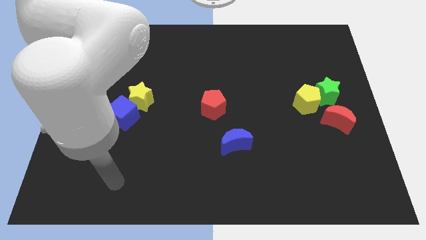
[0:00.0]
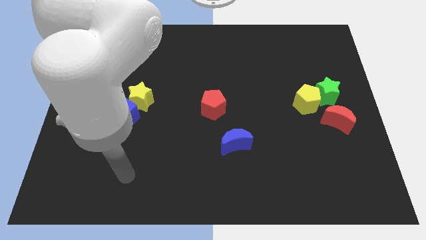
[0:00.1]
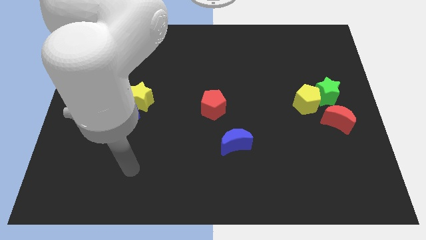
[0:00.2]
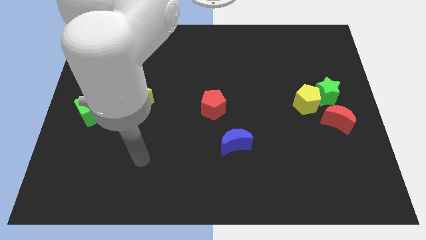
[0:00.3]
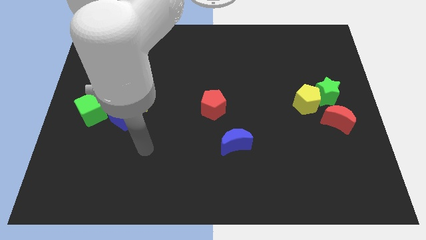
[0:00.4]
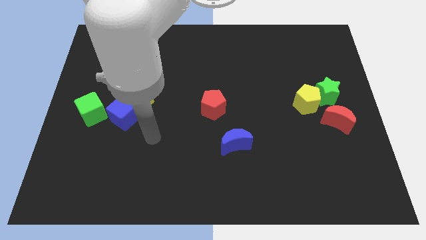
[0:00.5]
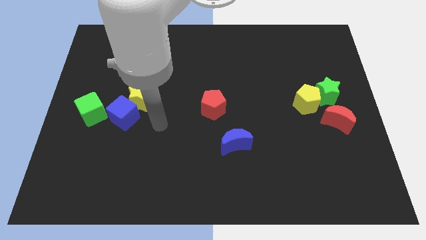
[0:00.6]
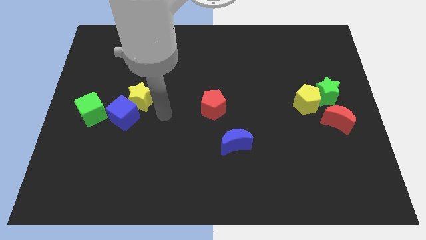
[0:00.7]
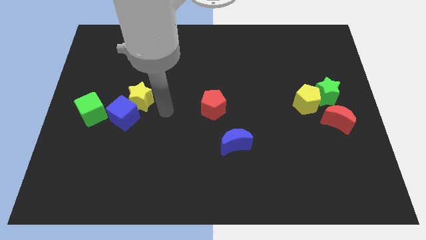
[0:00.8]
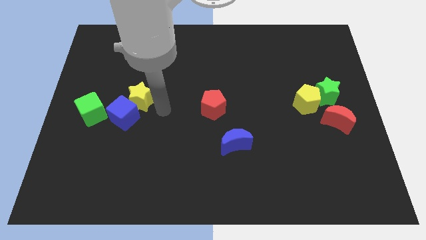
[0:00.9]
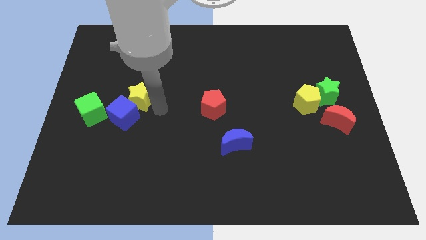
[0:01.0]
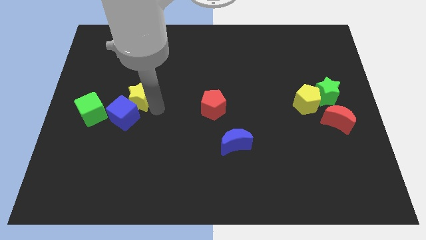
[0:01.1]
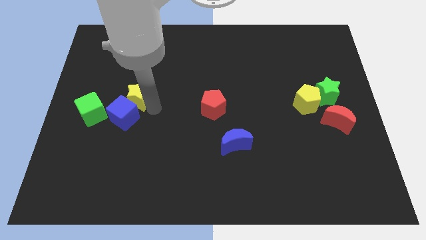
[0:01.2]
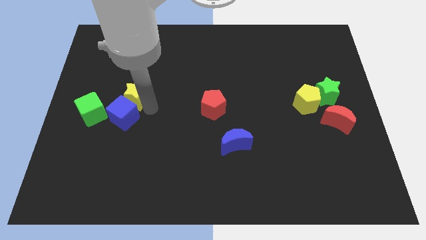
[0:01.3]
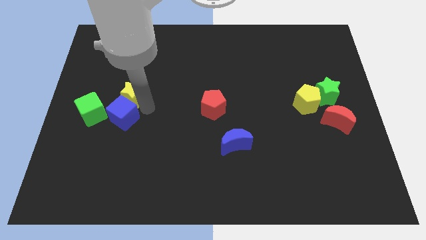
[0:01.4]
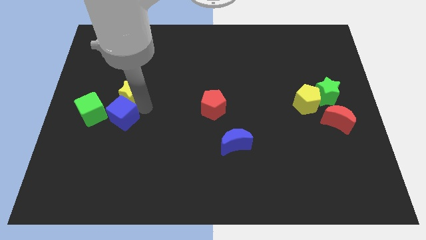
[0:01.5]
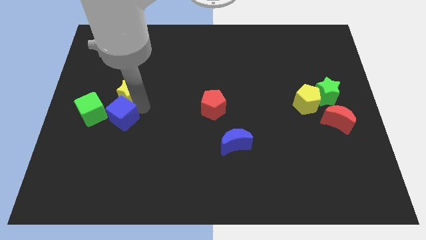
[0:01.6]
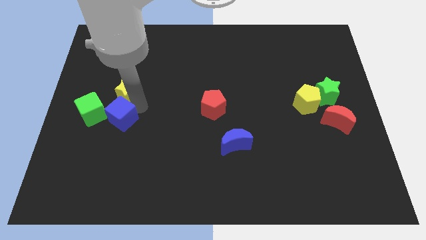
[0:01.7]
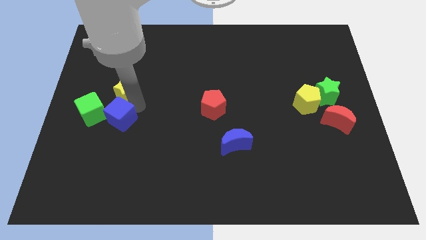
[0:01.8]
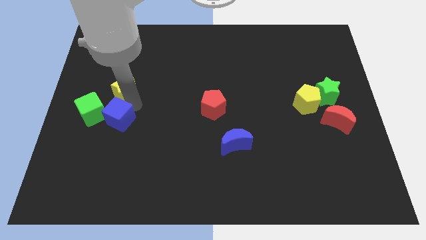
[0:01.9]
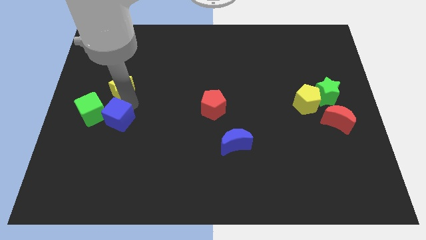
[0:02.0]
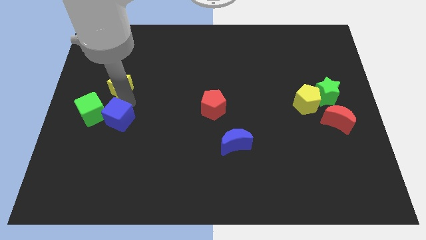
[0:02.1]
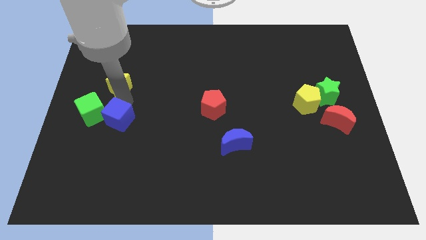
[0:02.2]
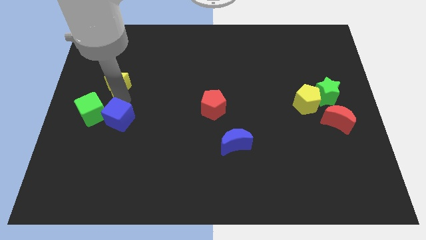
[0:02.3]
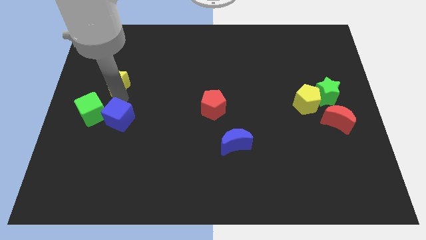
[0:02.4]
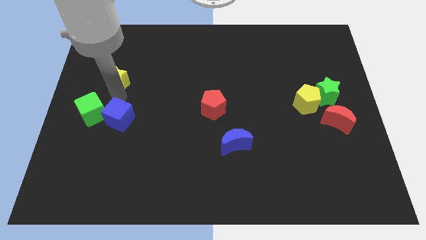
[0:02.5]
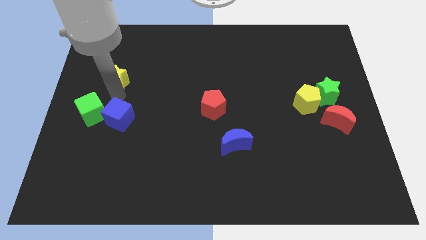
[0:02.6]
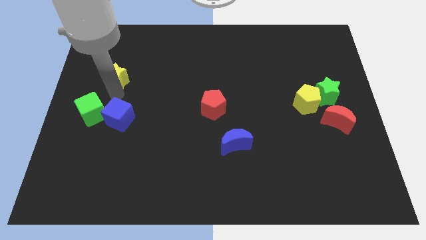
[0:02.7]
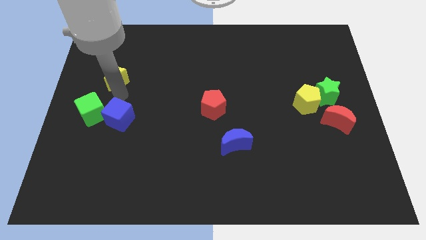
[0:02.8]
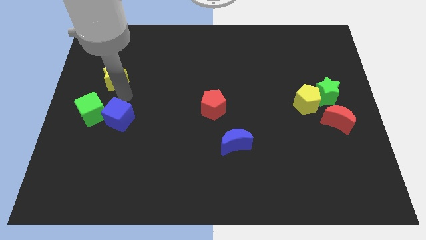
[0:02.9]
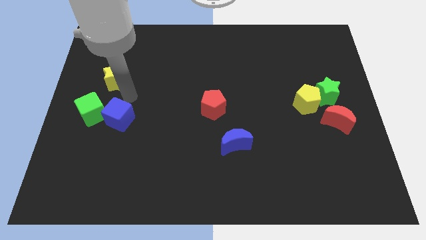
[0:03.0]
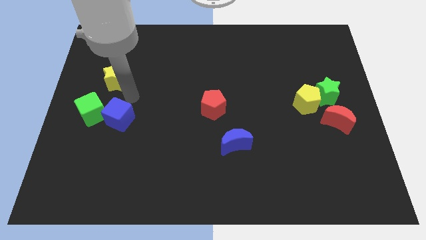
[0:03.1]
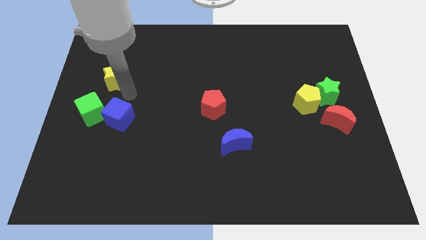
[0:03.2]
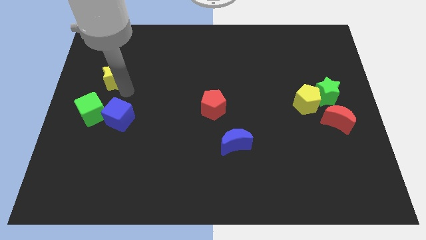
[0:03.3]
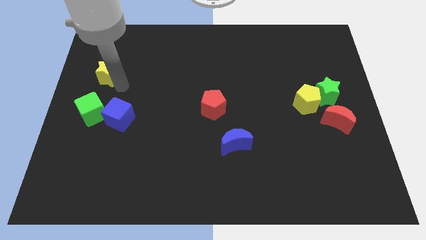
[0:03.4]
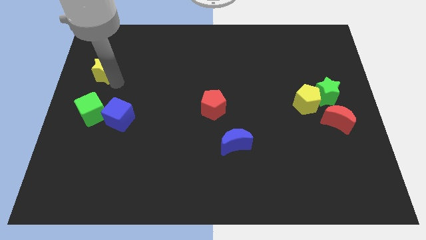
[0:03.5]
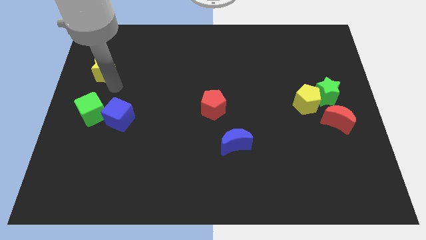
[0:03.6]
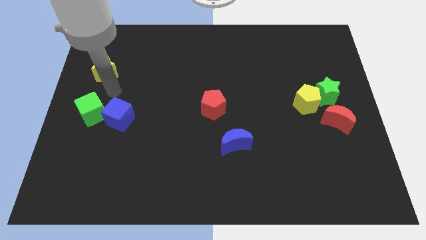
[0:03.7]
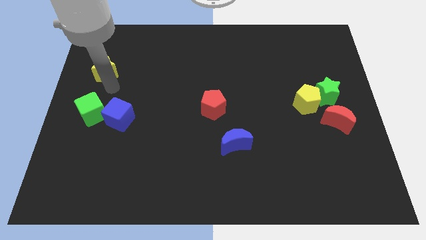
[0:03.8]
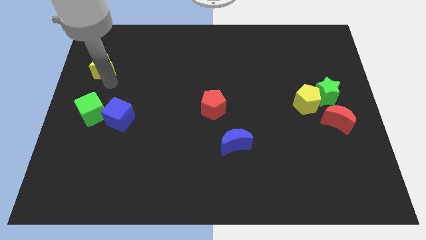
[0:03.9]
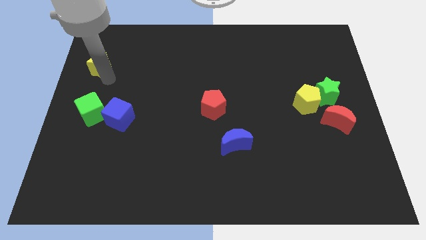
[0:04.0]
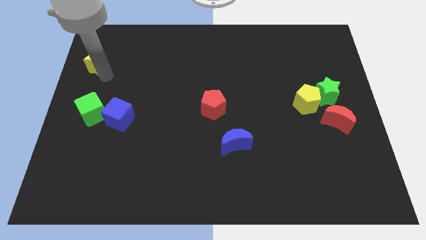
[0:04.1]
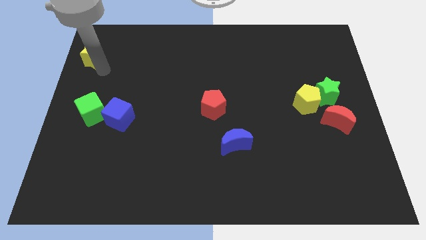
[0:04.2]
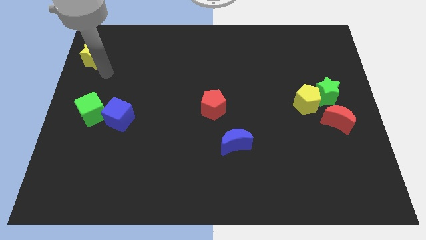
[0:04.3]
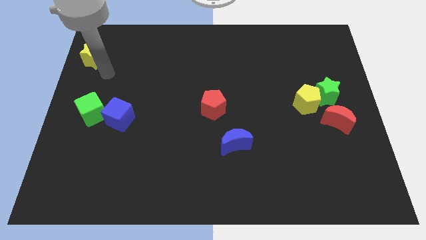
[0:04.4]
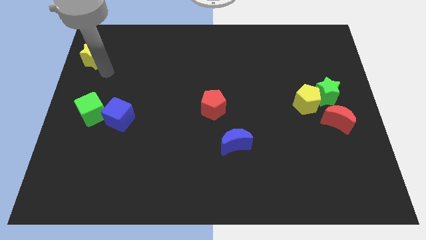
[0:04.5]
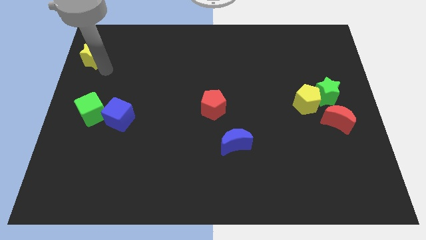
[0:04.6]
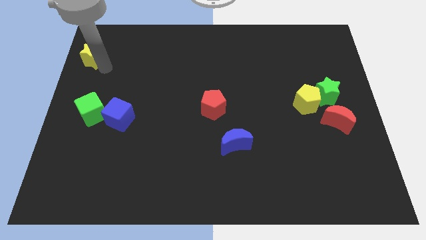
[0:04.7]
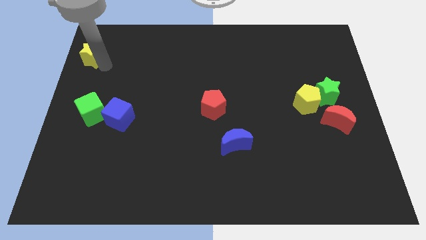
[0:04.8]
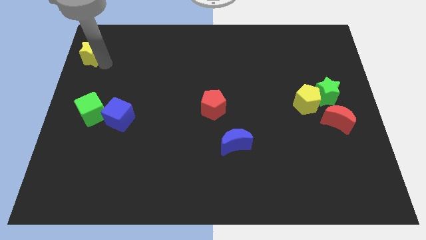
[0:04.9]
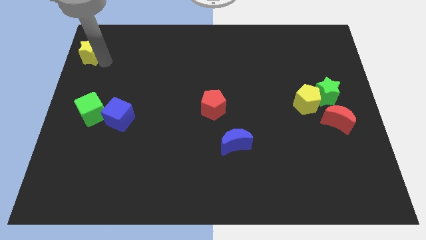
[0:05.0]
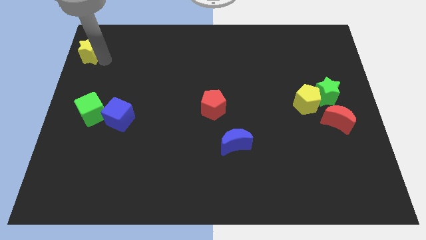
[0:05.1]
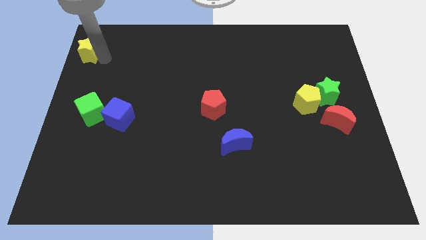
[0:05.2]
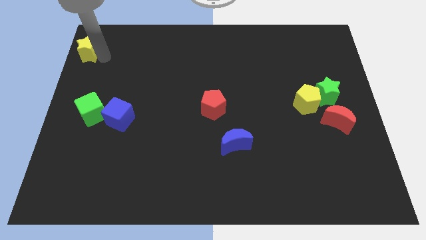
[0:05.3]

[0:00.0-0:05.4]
push the yellow star to the top left

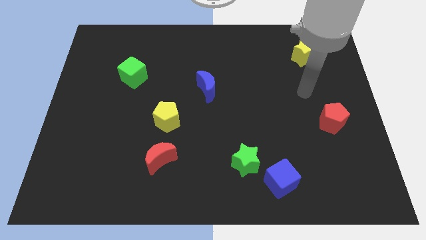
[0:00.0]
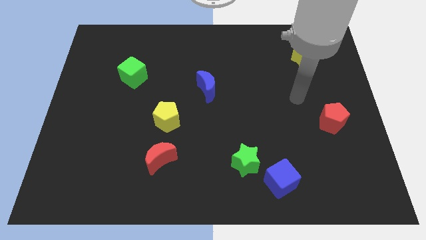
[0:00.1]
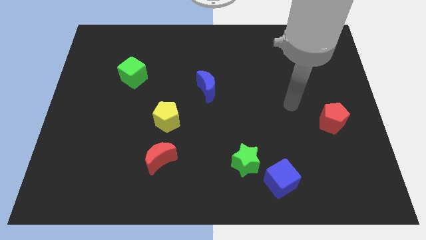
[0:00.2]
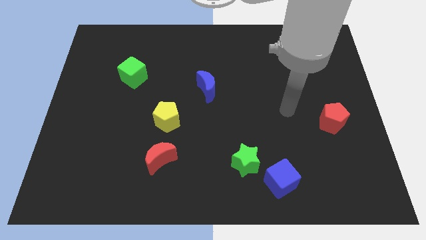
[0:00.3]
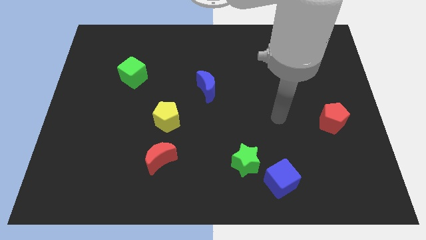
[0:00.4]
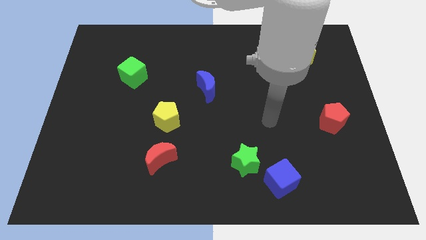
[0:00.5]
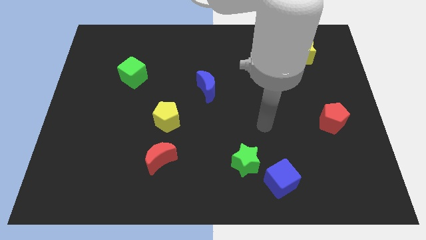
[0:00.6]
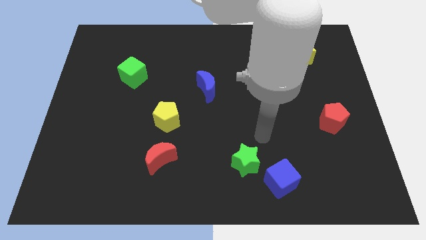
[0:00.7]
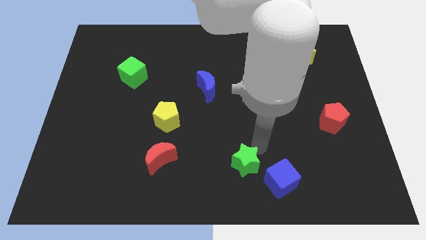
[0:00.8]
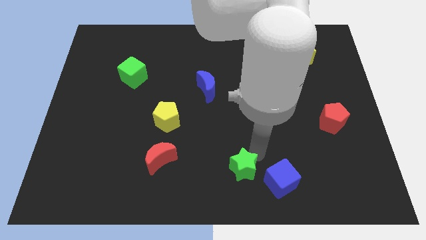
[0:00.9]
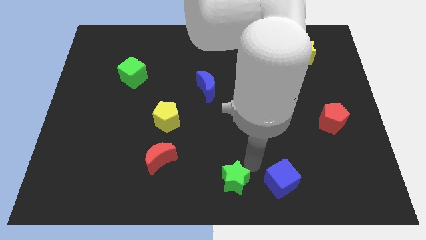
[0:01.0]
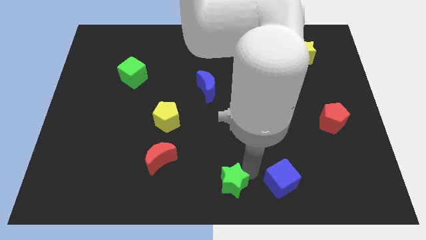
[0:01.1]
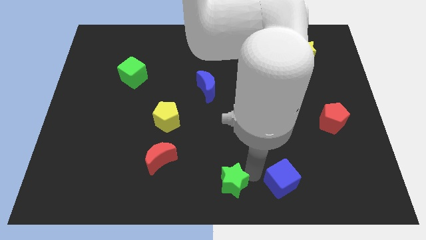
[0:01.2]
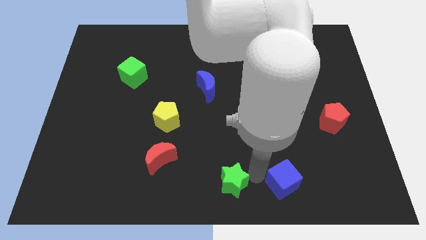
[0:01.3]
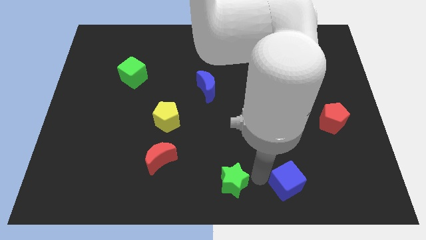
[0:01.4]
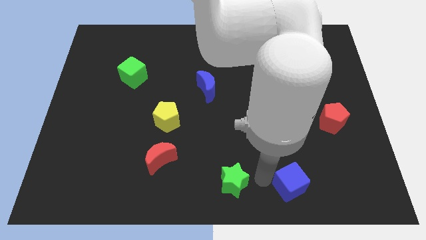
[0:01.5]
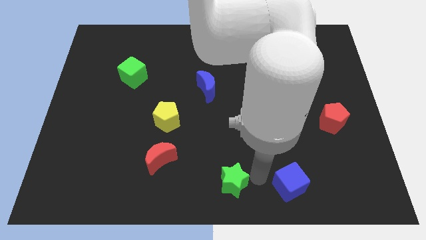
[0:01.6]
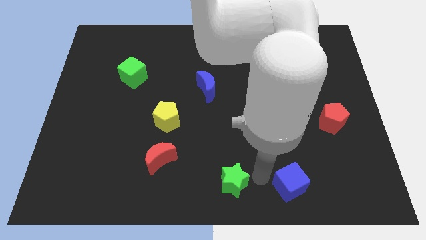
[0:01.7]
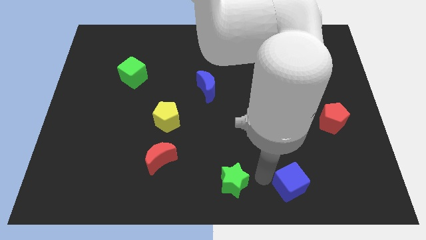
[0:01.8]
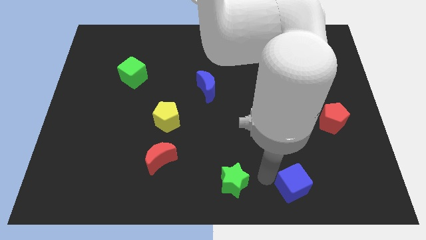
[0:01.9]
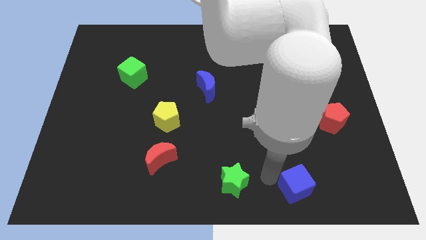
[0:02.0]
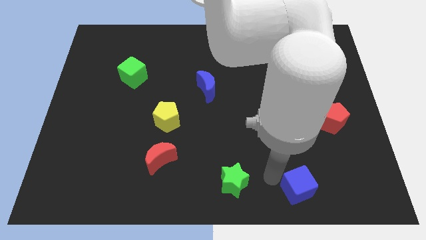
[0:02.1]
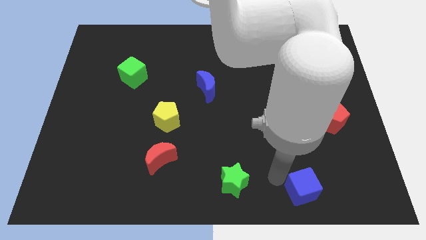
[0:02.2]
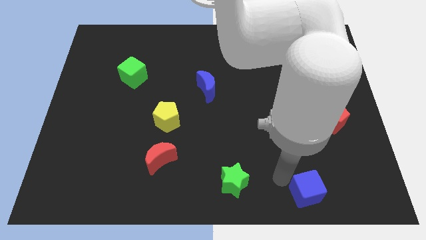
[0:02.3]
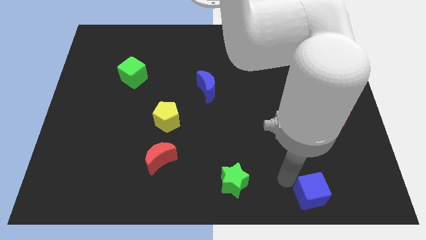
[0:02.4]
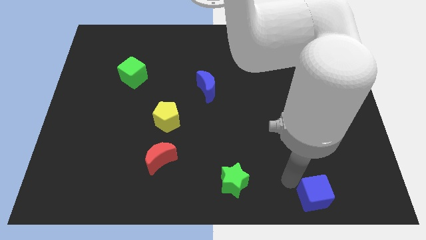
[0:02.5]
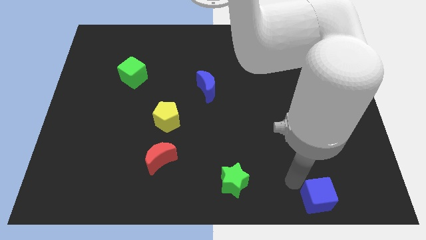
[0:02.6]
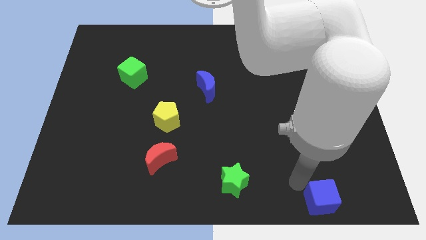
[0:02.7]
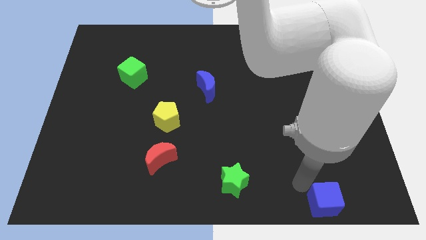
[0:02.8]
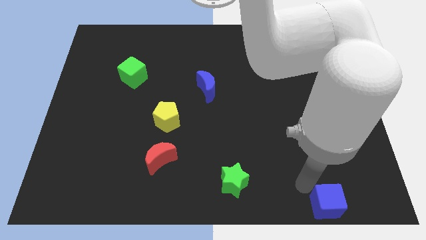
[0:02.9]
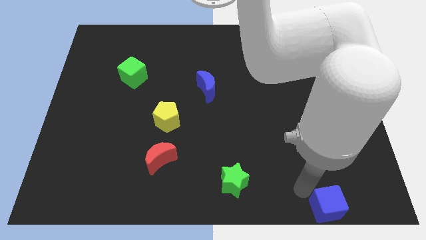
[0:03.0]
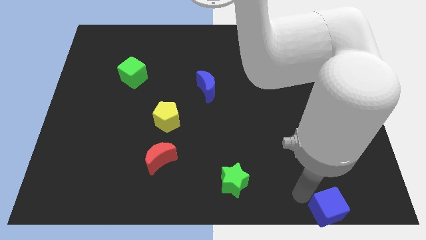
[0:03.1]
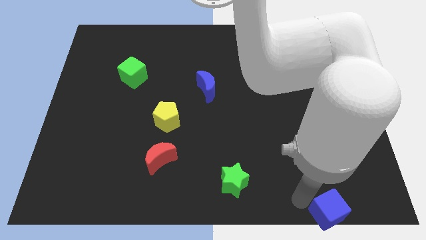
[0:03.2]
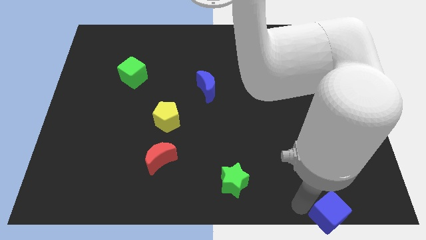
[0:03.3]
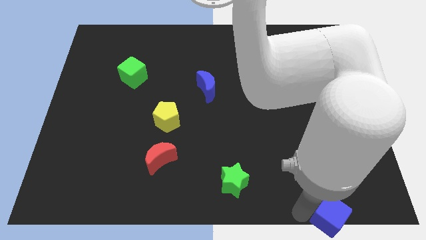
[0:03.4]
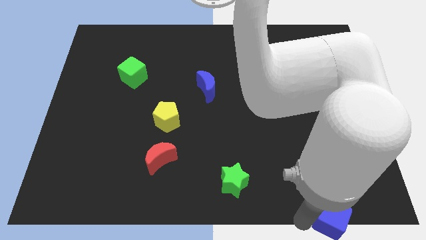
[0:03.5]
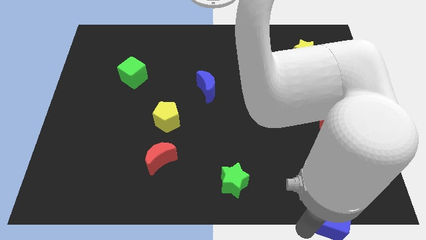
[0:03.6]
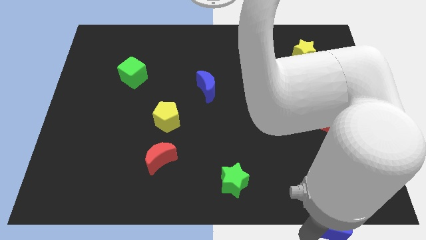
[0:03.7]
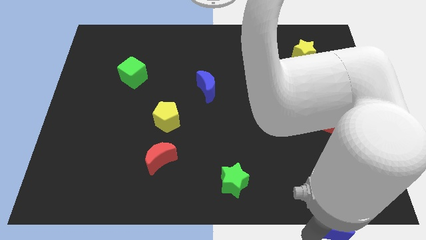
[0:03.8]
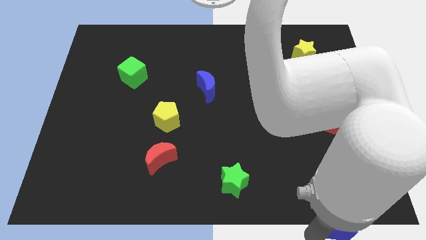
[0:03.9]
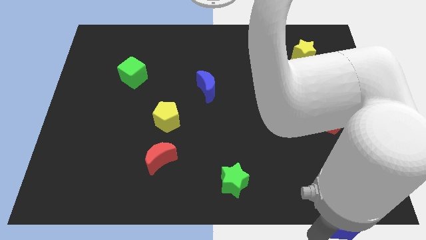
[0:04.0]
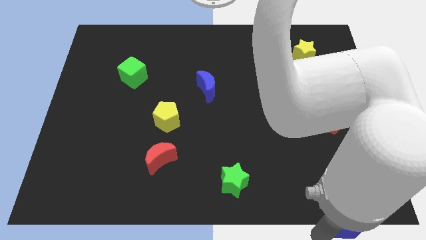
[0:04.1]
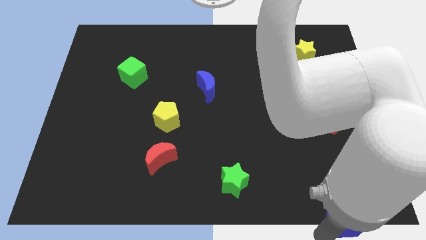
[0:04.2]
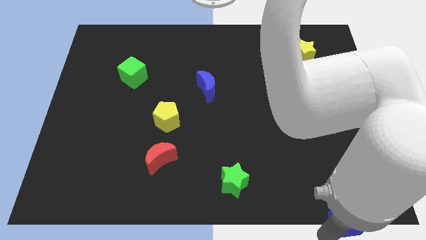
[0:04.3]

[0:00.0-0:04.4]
move the blue cube to the bottom right of the board
